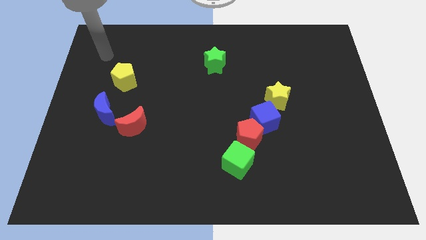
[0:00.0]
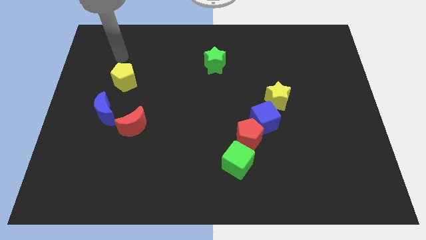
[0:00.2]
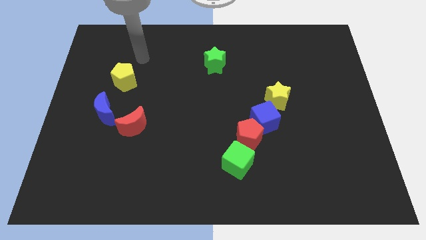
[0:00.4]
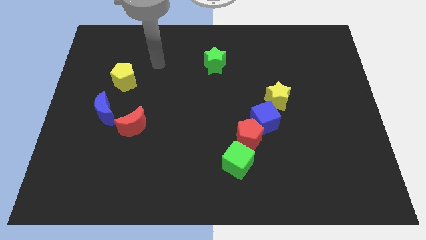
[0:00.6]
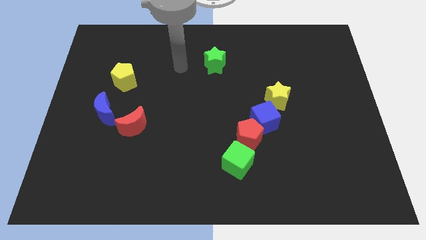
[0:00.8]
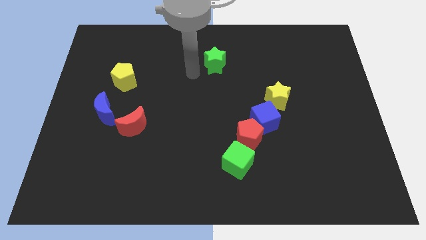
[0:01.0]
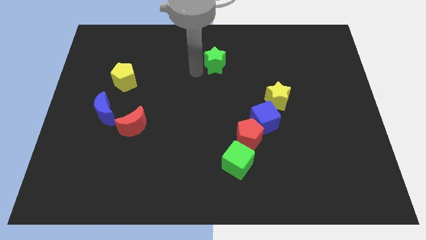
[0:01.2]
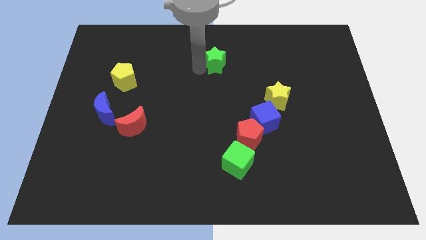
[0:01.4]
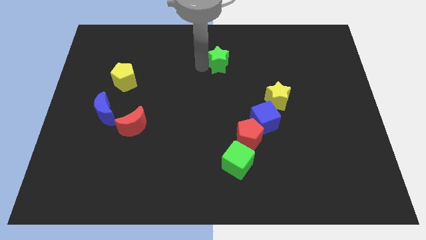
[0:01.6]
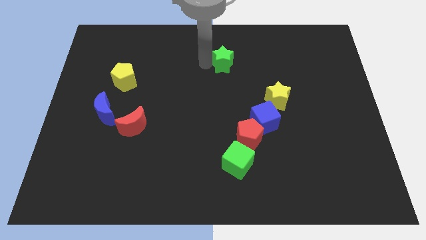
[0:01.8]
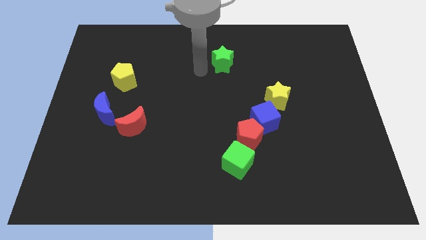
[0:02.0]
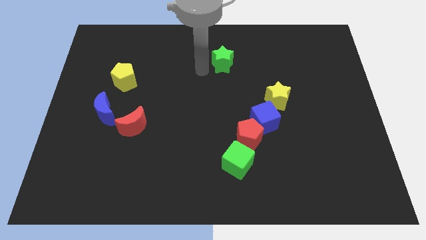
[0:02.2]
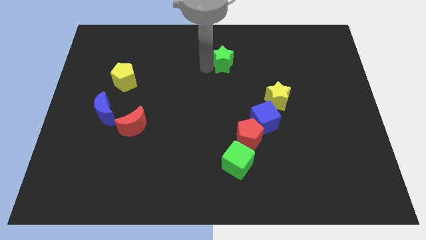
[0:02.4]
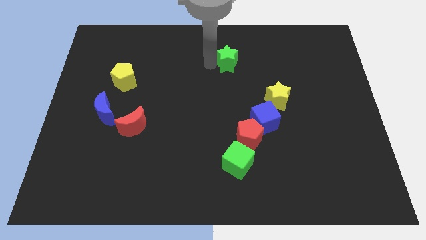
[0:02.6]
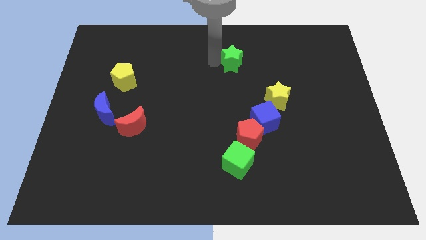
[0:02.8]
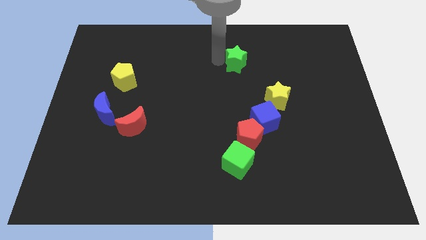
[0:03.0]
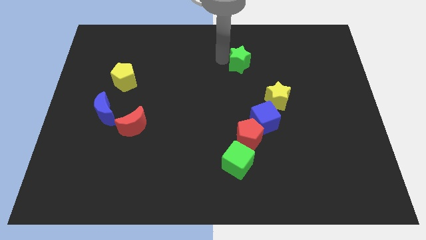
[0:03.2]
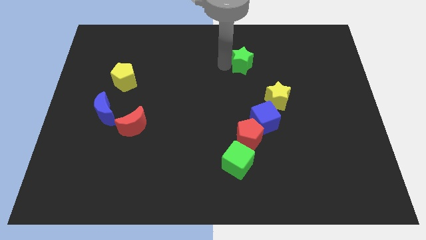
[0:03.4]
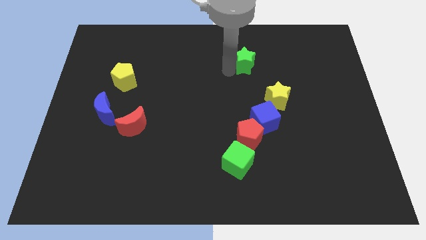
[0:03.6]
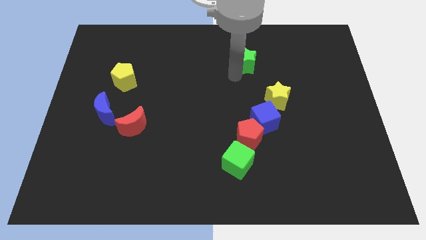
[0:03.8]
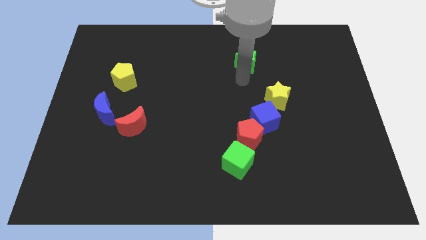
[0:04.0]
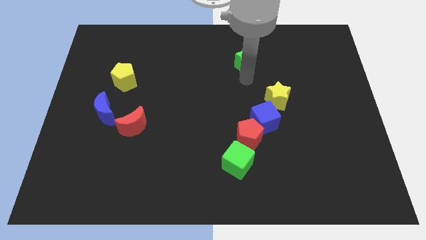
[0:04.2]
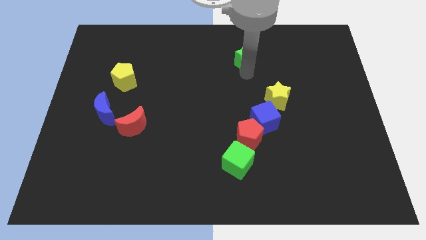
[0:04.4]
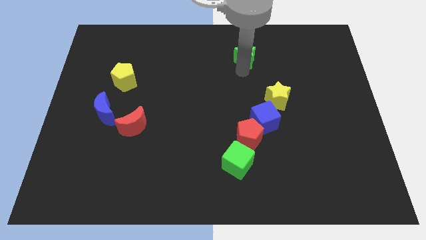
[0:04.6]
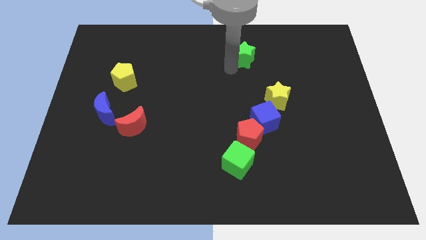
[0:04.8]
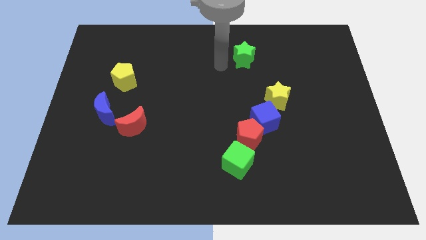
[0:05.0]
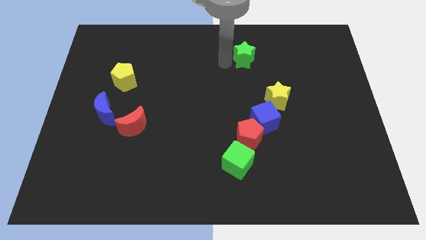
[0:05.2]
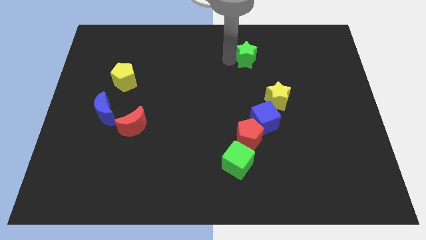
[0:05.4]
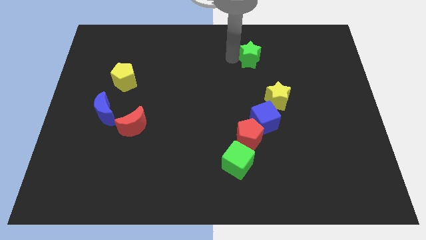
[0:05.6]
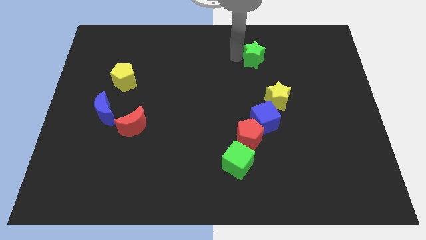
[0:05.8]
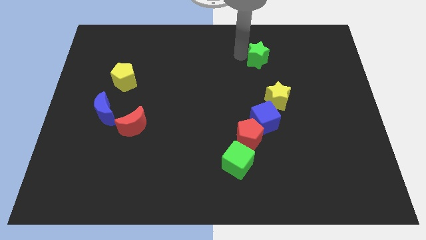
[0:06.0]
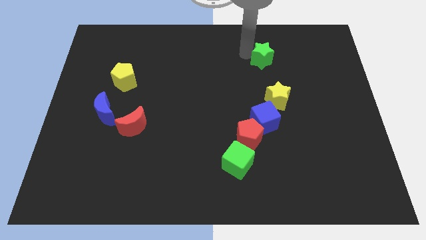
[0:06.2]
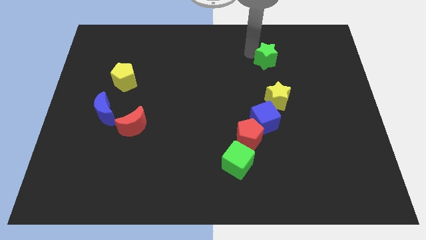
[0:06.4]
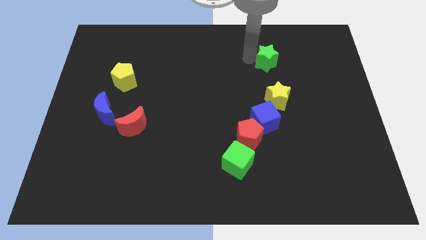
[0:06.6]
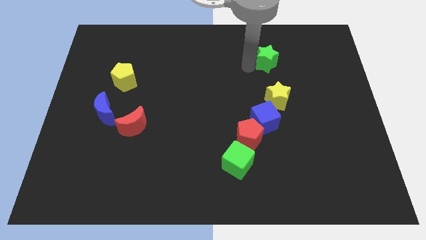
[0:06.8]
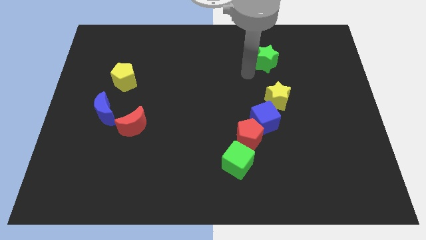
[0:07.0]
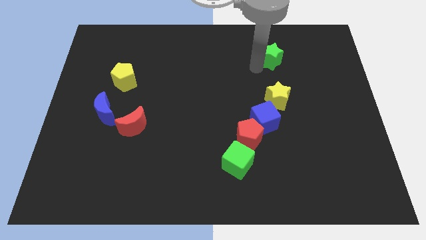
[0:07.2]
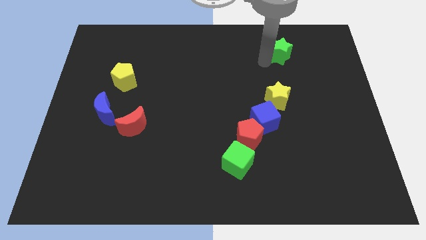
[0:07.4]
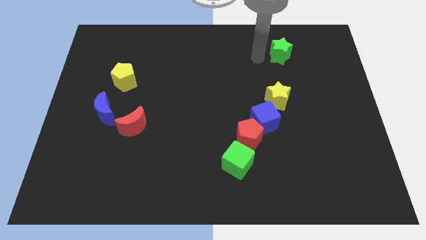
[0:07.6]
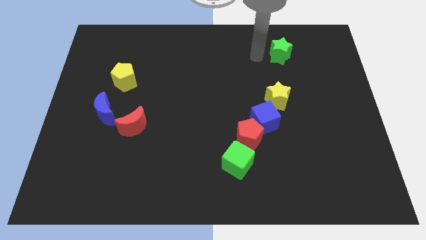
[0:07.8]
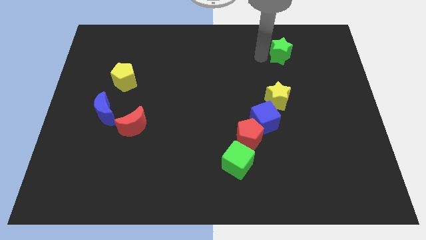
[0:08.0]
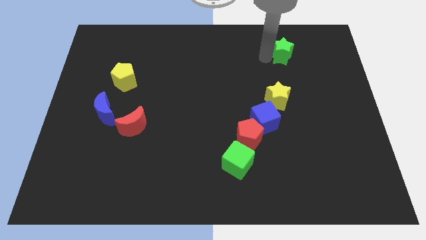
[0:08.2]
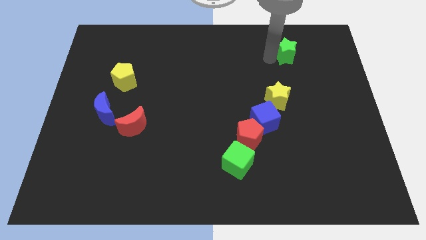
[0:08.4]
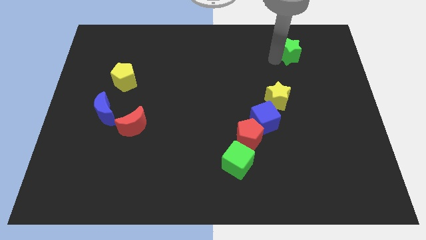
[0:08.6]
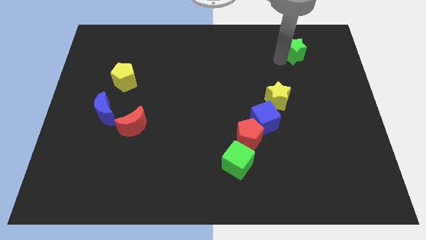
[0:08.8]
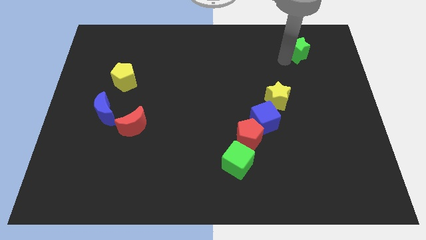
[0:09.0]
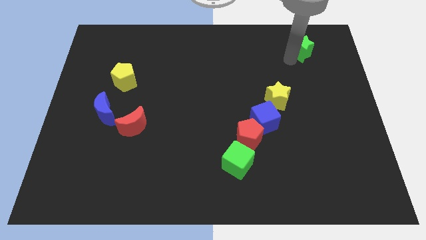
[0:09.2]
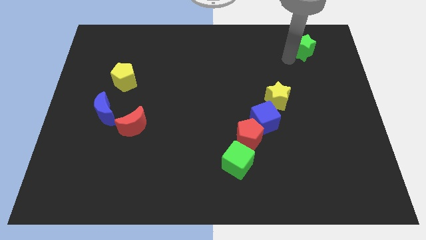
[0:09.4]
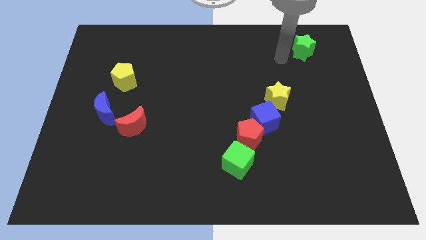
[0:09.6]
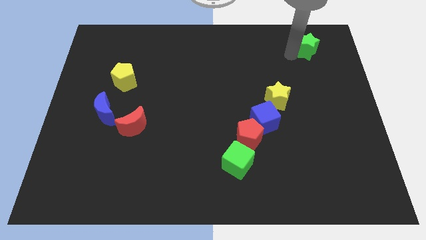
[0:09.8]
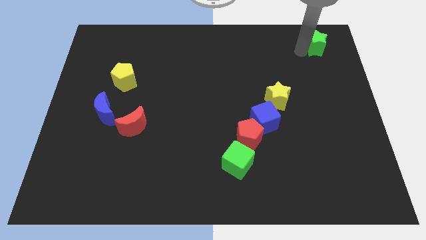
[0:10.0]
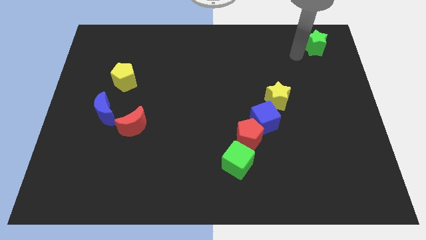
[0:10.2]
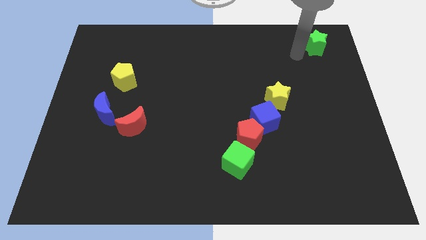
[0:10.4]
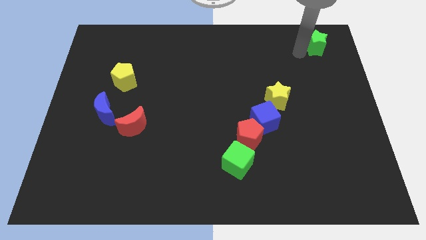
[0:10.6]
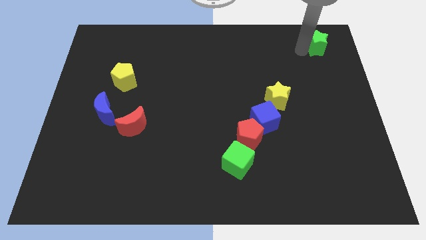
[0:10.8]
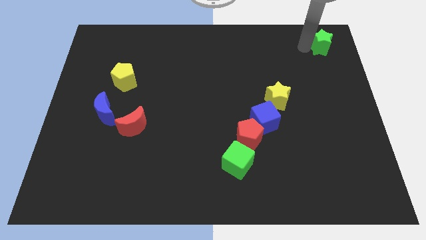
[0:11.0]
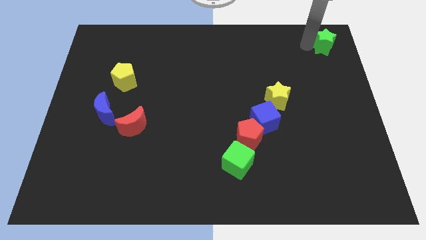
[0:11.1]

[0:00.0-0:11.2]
move the green star to the top right

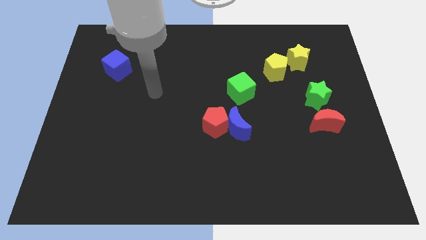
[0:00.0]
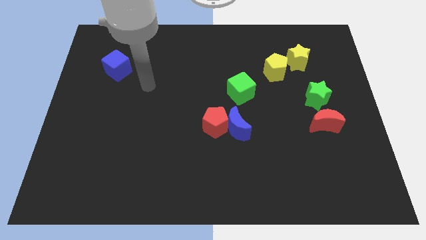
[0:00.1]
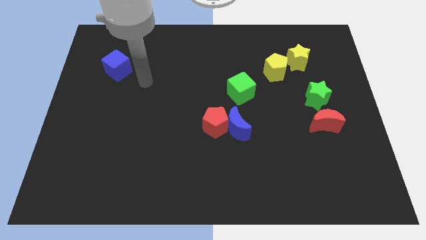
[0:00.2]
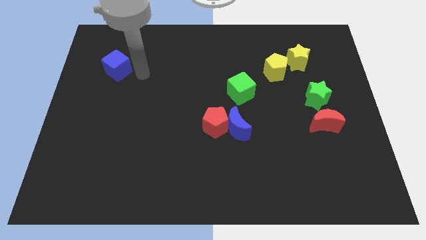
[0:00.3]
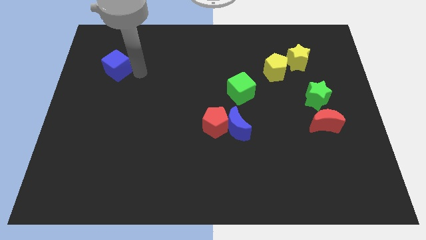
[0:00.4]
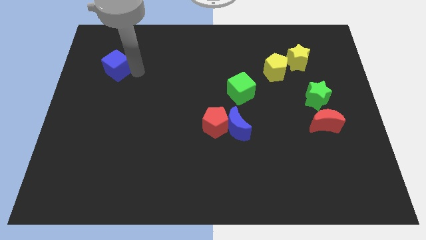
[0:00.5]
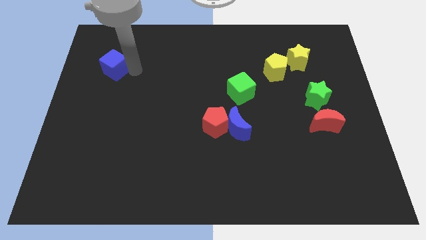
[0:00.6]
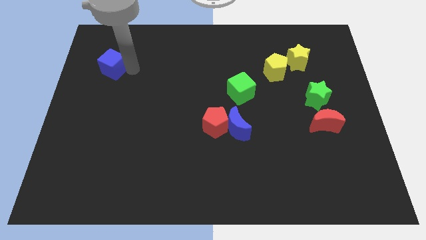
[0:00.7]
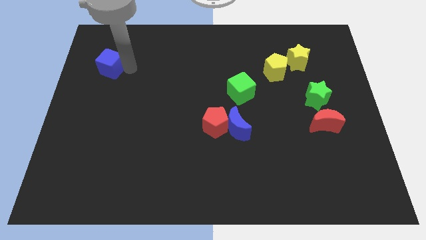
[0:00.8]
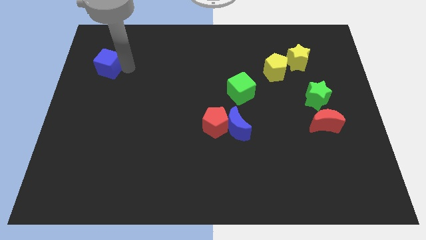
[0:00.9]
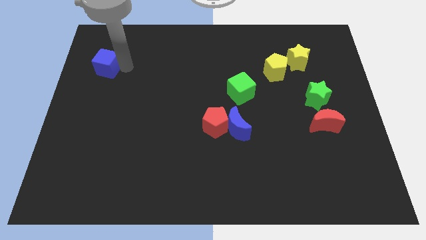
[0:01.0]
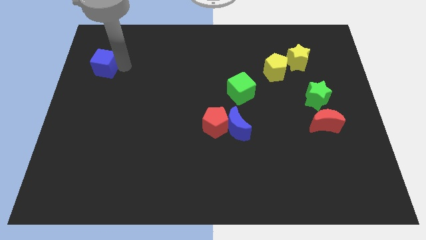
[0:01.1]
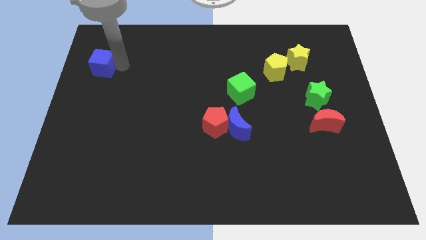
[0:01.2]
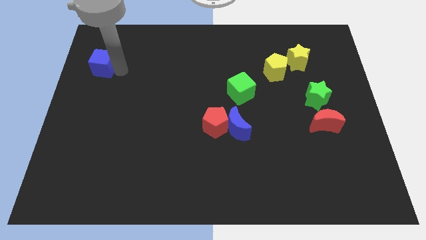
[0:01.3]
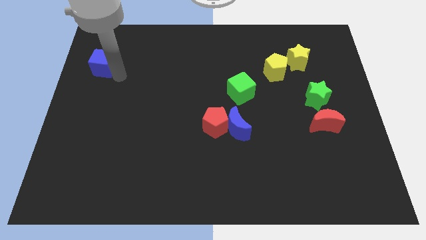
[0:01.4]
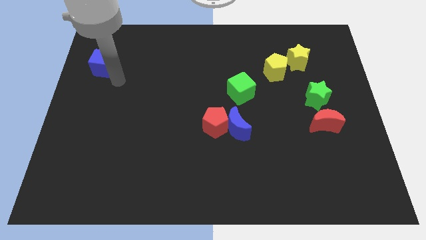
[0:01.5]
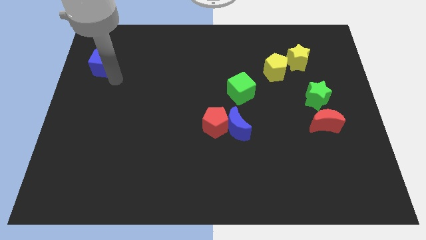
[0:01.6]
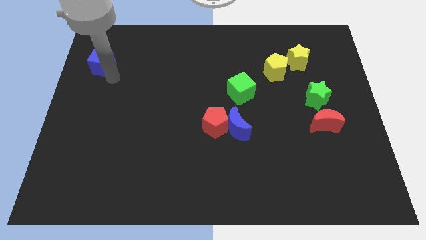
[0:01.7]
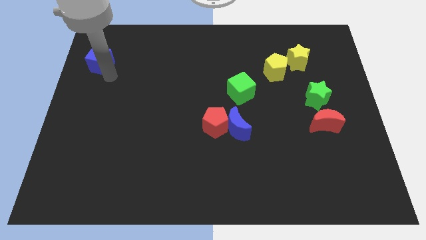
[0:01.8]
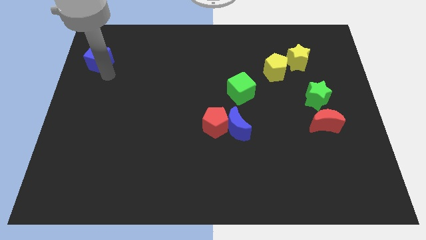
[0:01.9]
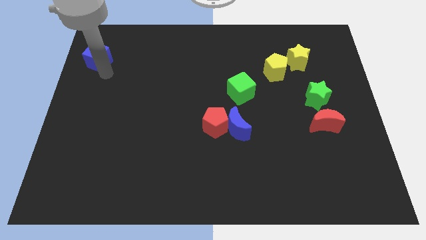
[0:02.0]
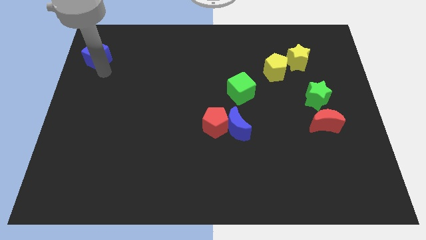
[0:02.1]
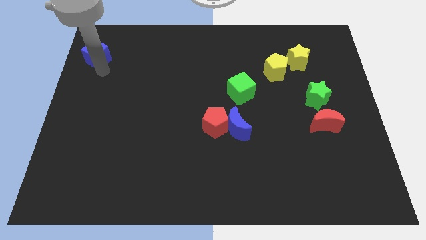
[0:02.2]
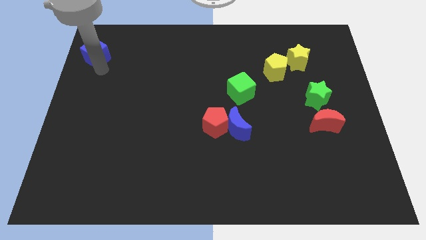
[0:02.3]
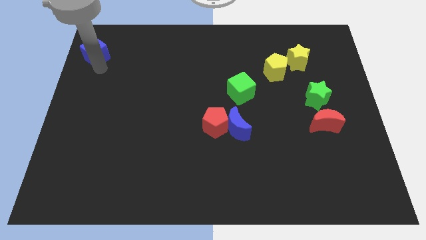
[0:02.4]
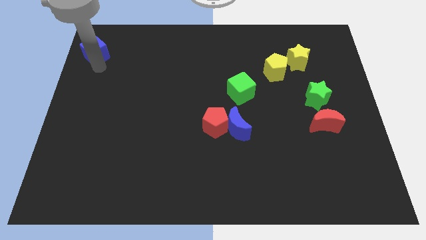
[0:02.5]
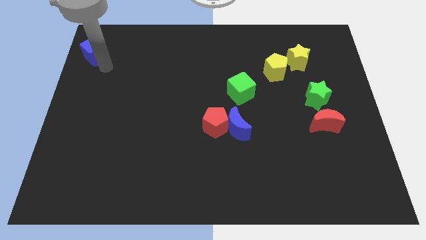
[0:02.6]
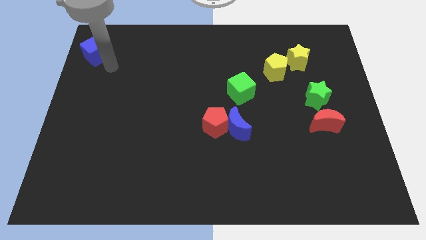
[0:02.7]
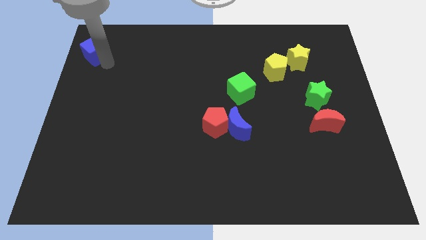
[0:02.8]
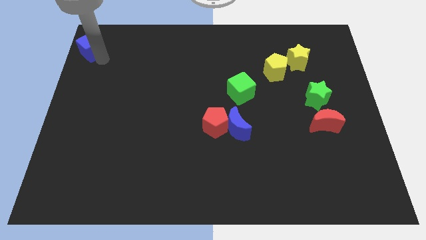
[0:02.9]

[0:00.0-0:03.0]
put the blue cube to the top left
